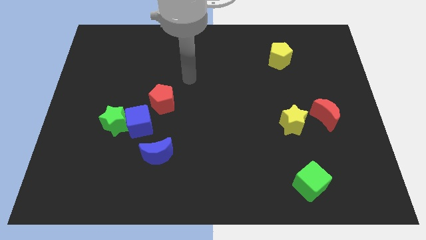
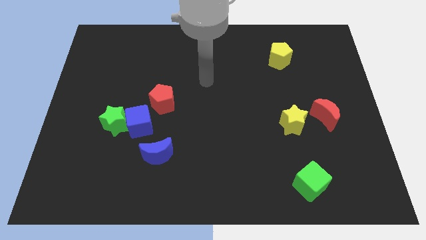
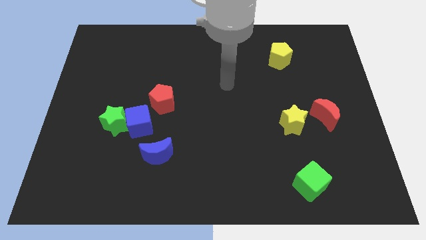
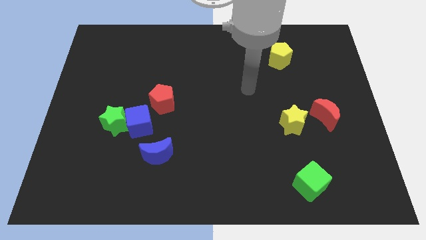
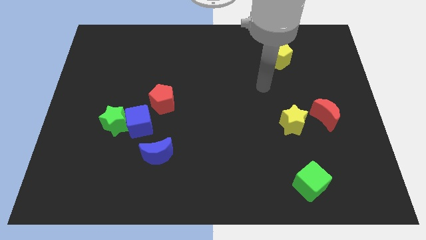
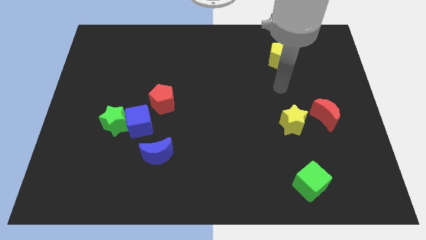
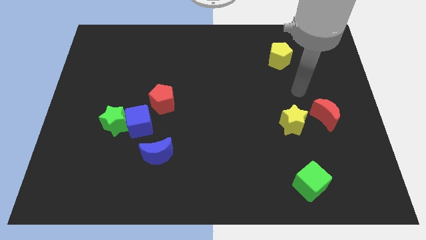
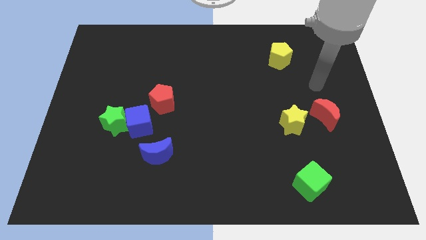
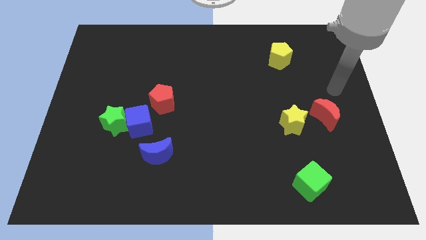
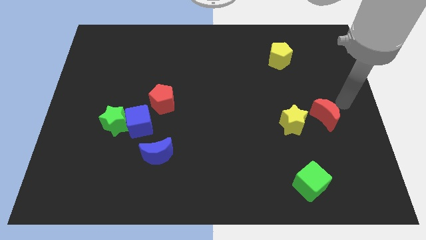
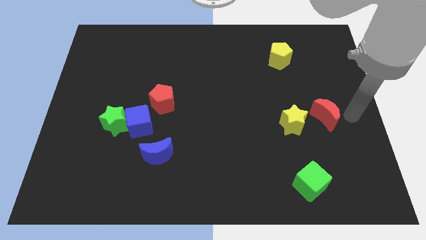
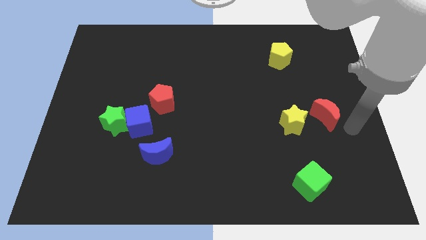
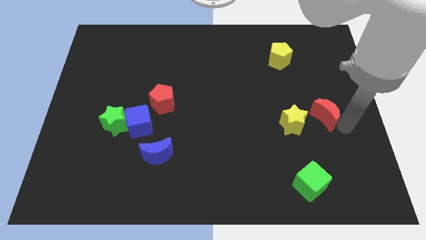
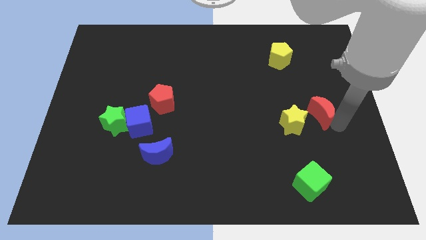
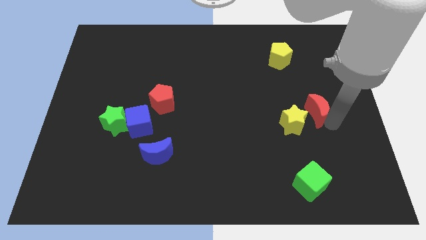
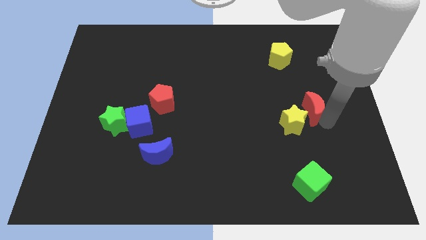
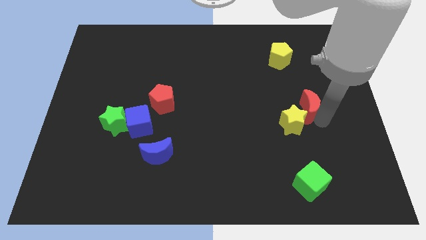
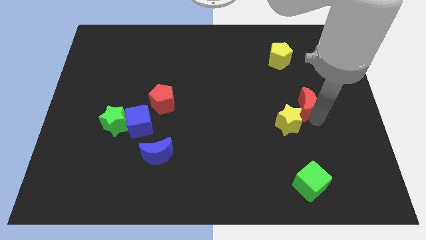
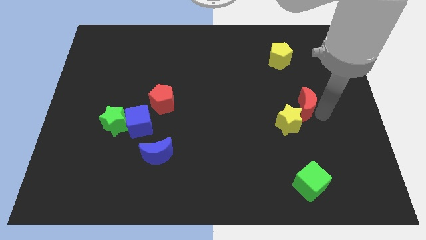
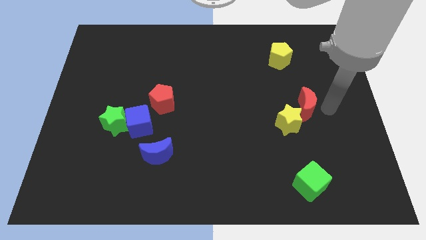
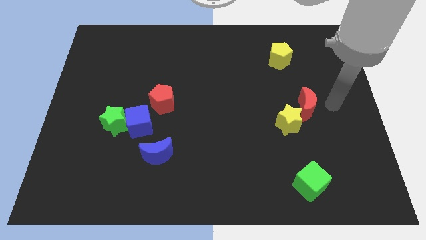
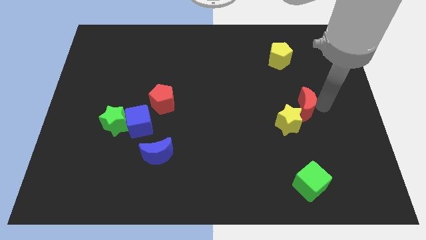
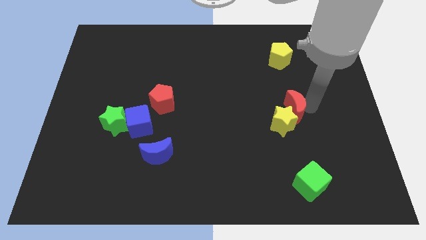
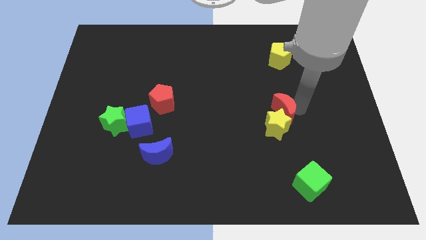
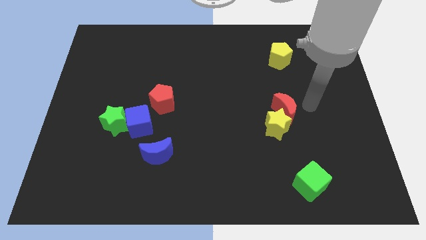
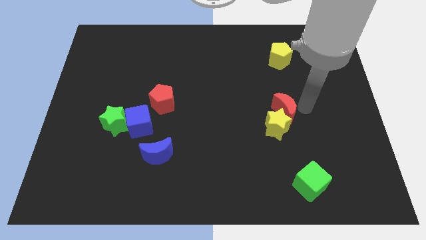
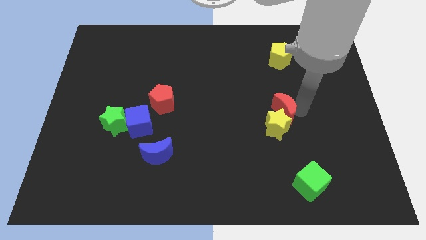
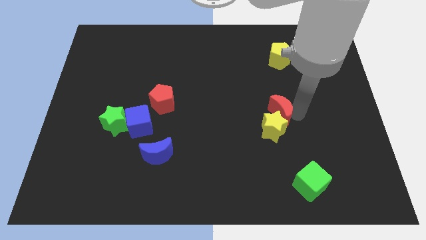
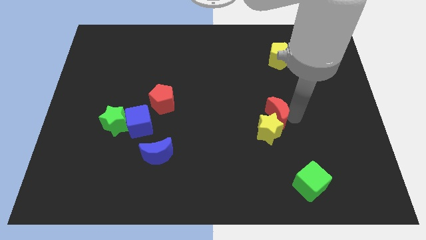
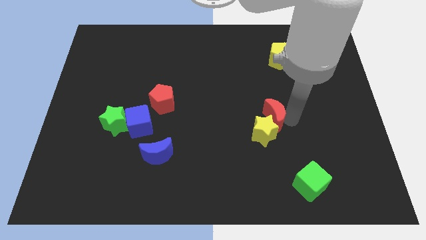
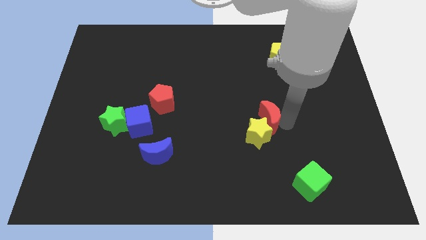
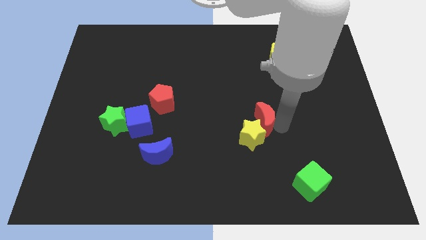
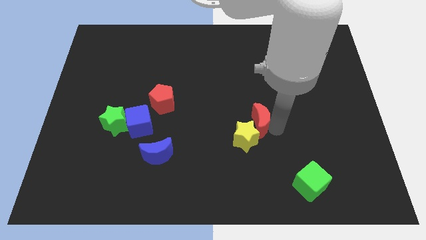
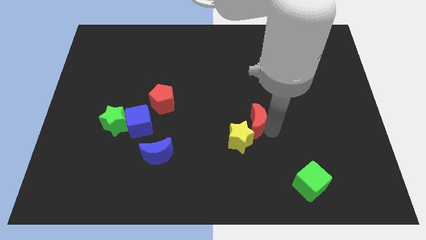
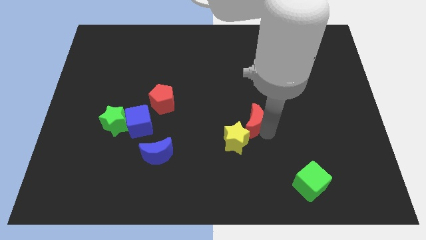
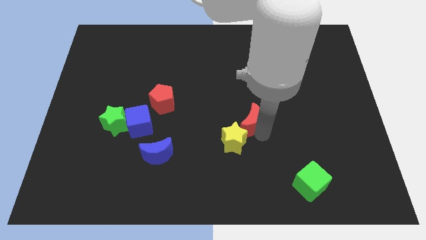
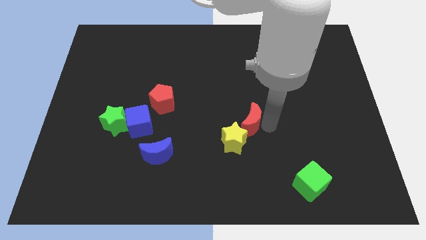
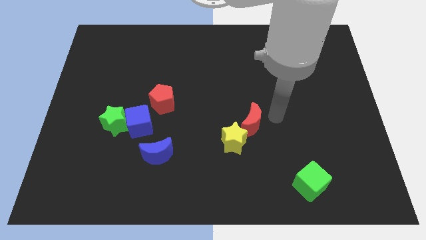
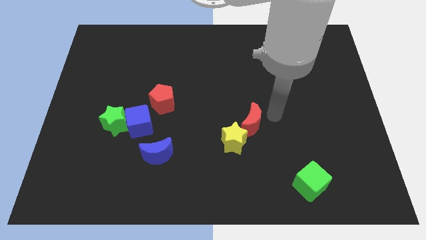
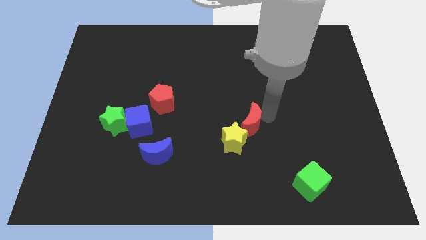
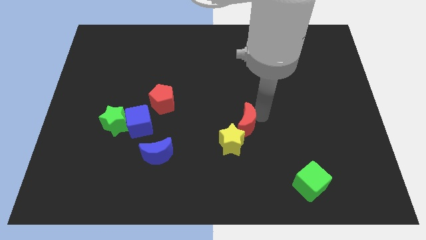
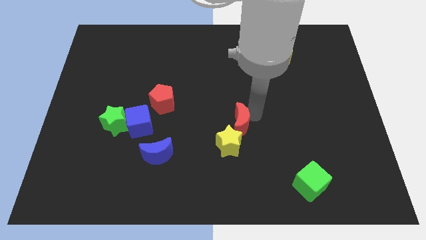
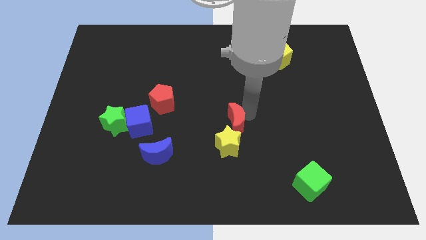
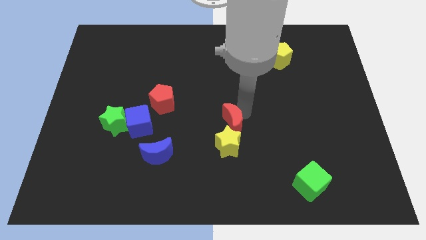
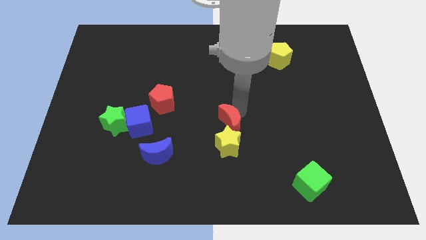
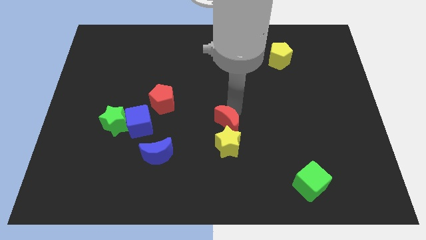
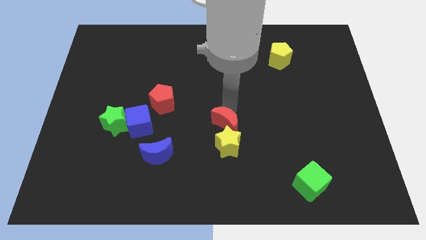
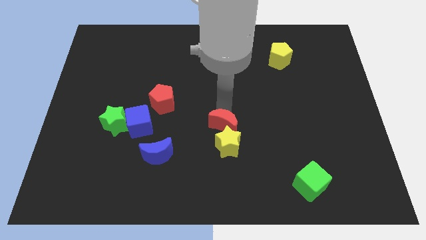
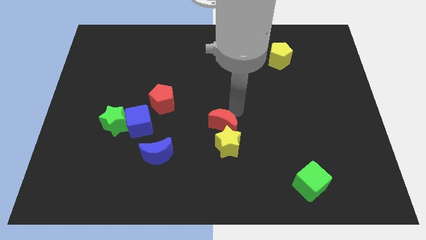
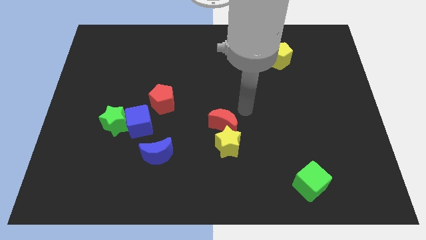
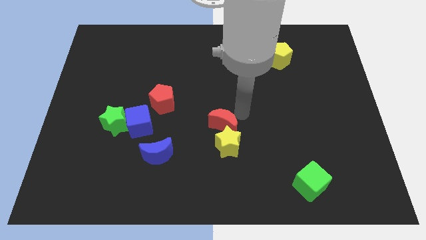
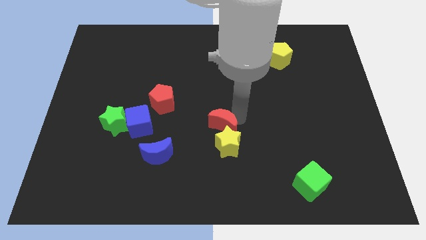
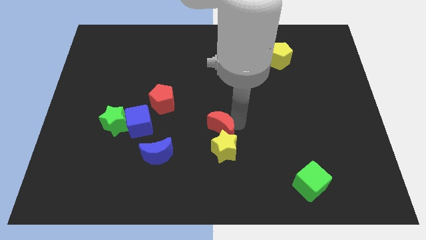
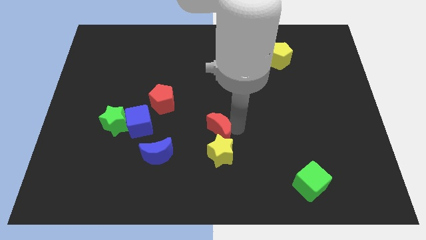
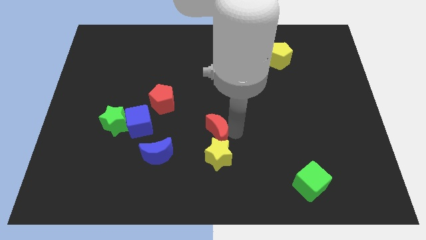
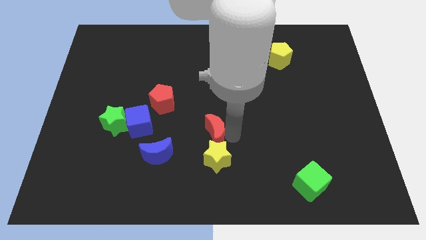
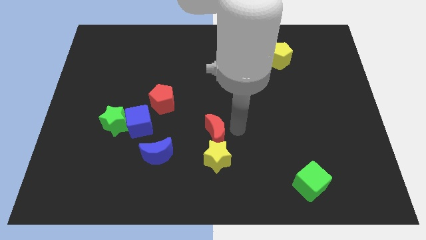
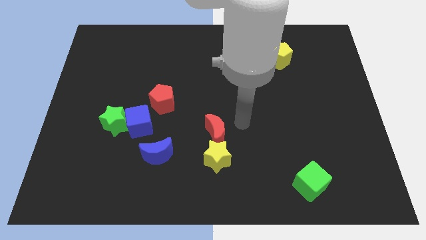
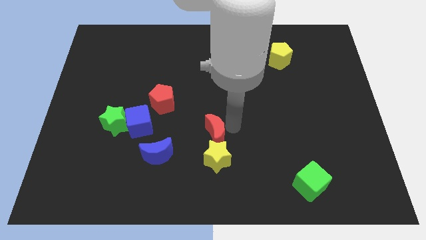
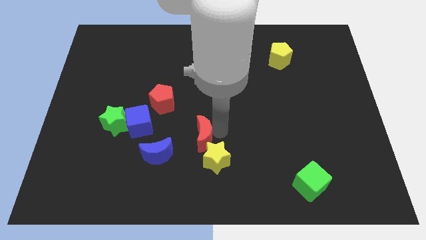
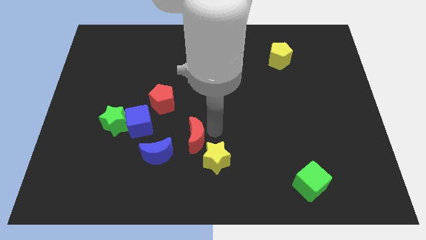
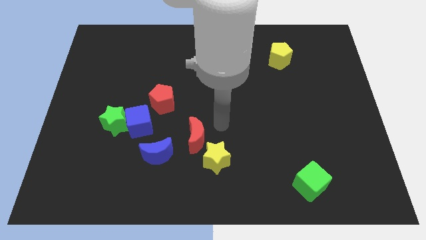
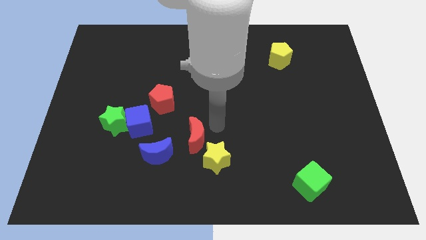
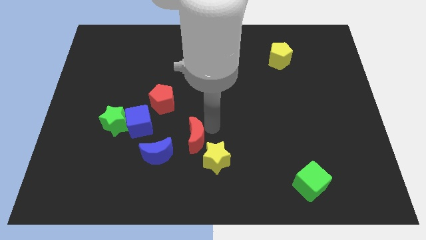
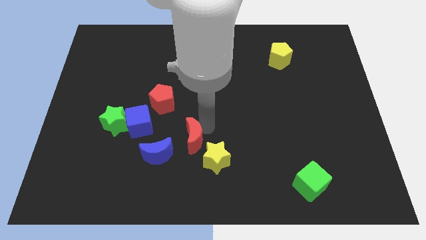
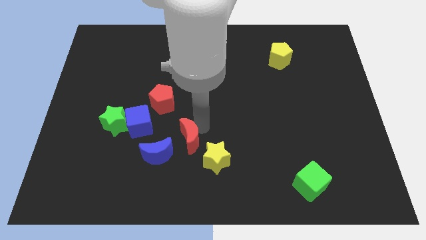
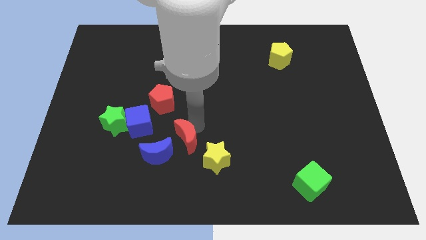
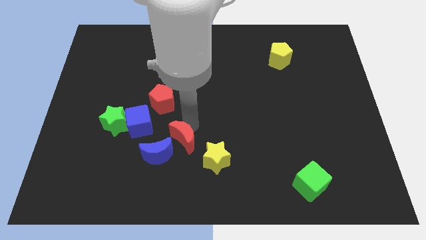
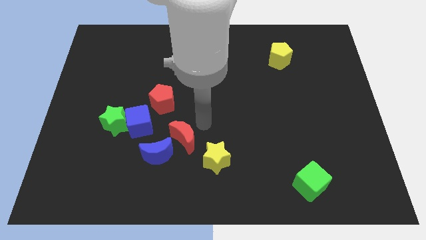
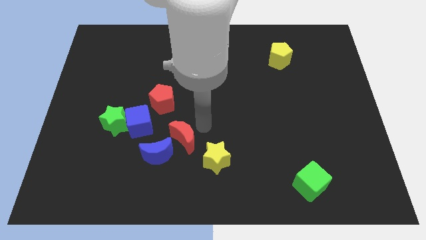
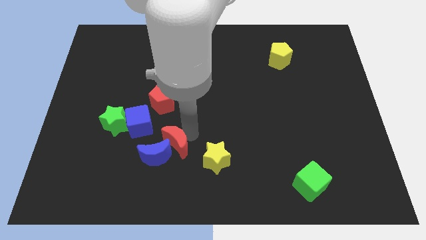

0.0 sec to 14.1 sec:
put the red moon next to the blue moon
